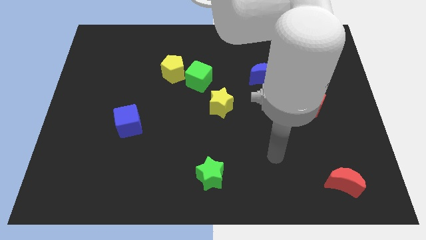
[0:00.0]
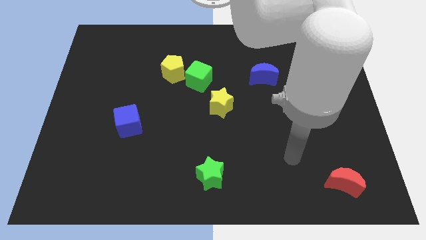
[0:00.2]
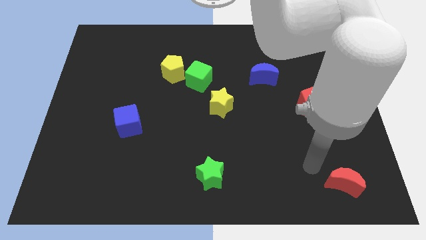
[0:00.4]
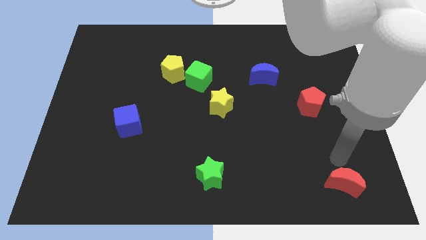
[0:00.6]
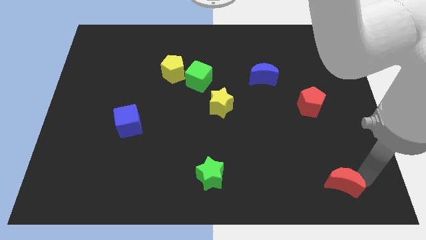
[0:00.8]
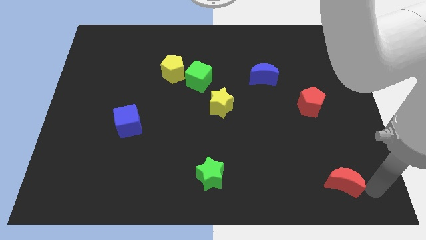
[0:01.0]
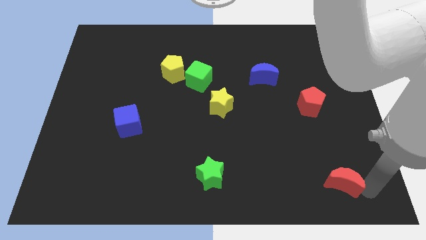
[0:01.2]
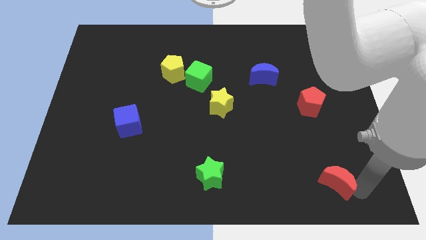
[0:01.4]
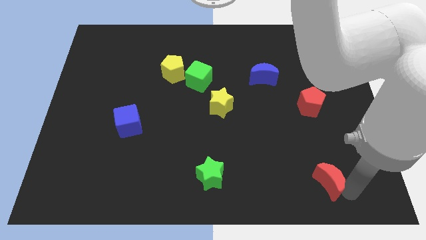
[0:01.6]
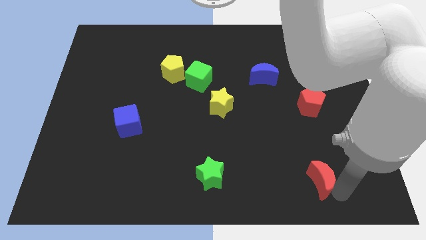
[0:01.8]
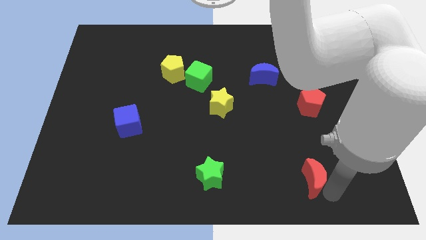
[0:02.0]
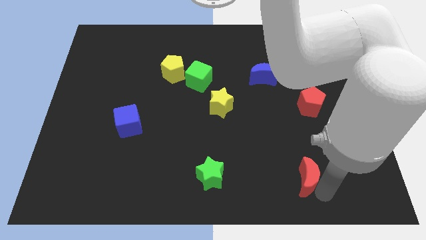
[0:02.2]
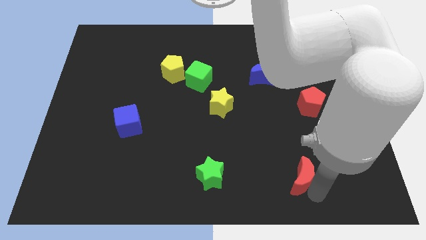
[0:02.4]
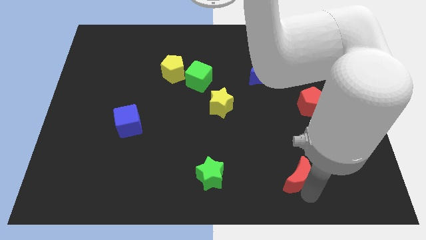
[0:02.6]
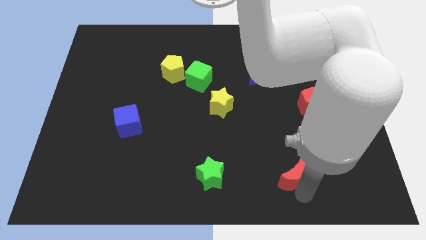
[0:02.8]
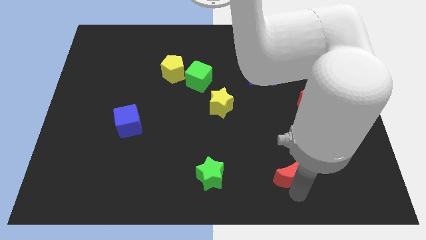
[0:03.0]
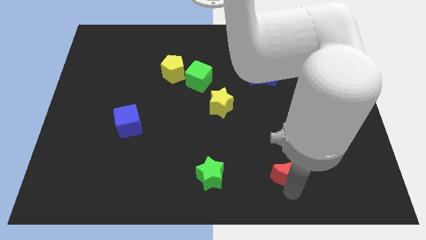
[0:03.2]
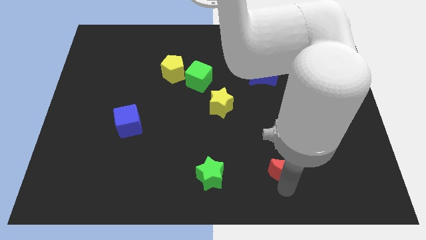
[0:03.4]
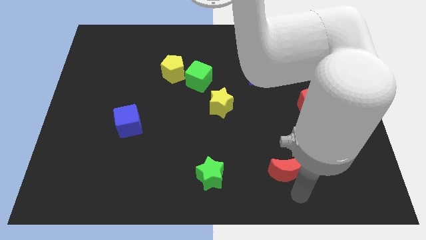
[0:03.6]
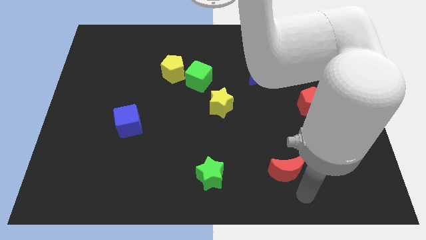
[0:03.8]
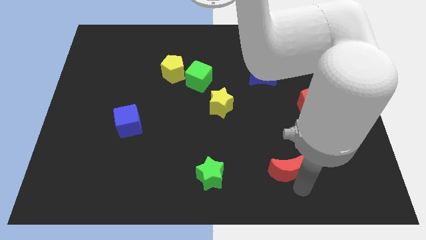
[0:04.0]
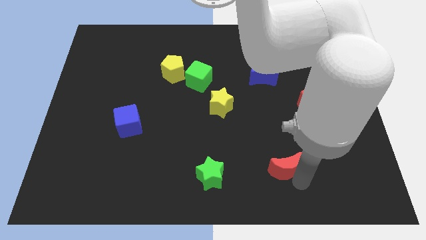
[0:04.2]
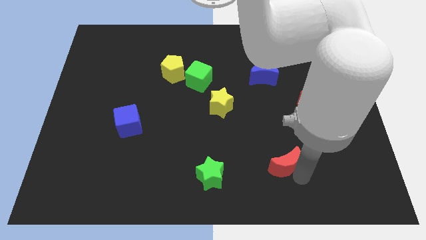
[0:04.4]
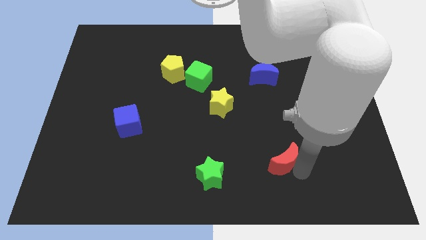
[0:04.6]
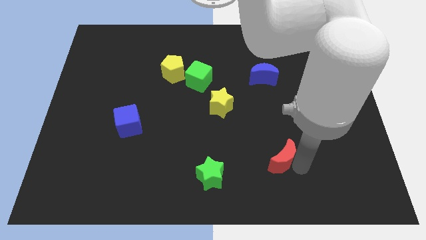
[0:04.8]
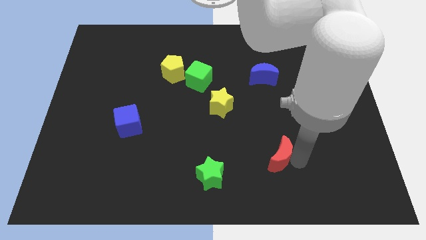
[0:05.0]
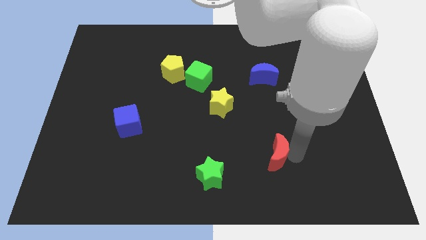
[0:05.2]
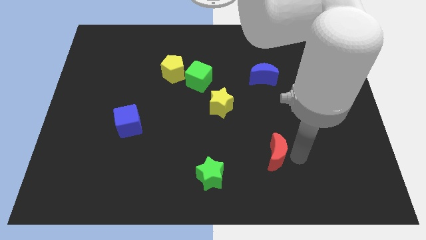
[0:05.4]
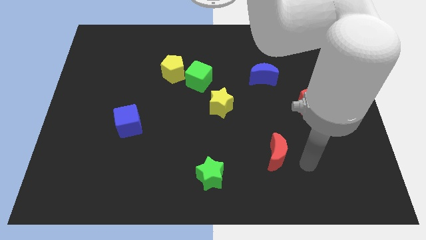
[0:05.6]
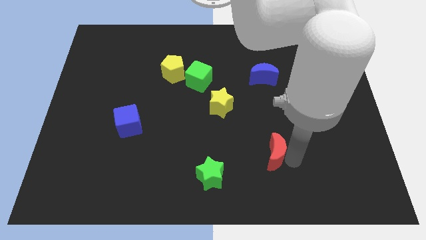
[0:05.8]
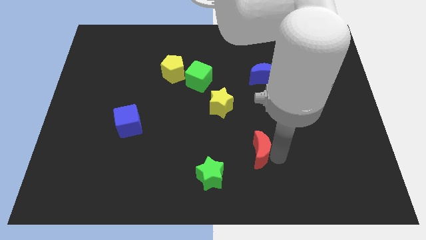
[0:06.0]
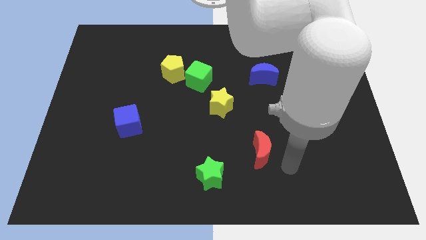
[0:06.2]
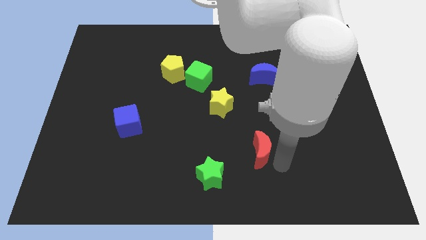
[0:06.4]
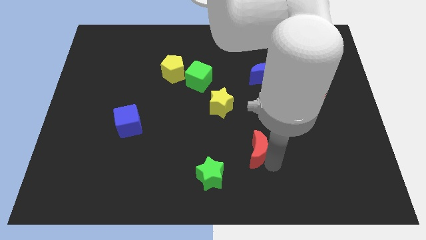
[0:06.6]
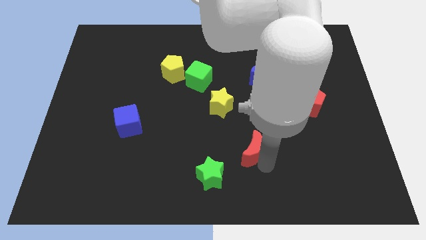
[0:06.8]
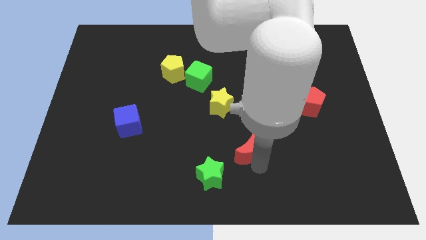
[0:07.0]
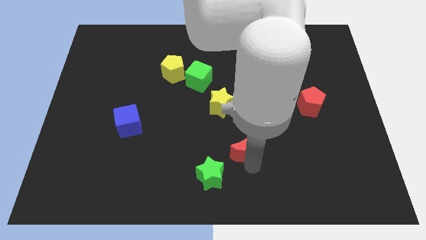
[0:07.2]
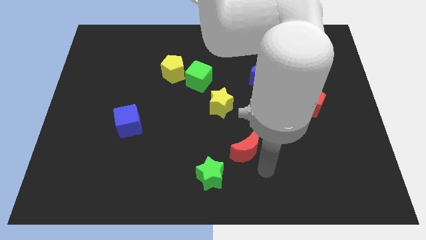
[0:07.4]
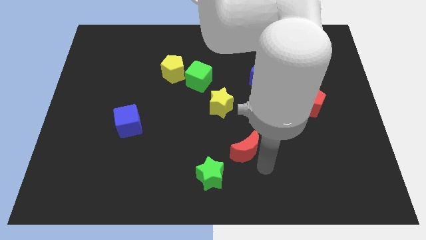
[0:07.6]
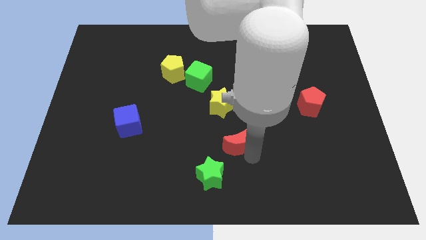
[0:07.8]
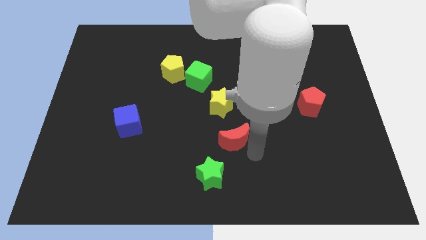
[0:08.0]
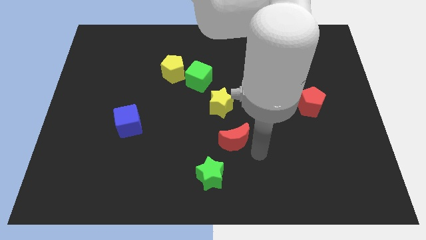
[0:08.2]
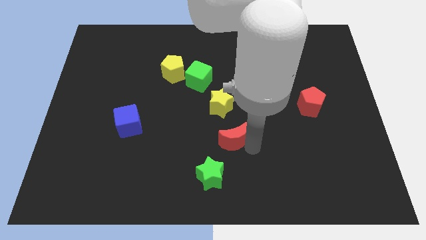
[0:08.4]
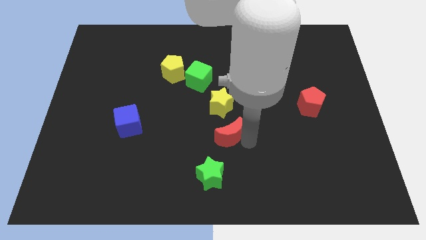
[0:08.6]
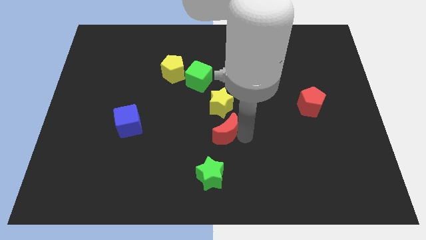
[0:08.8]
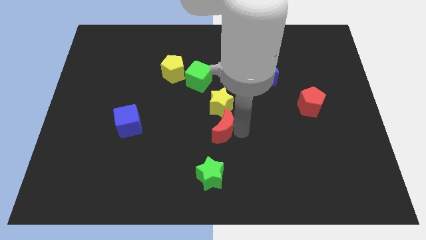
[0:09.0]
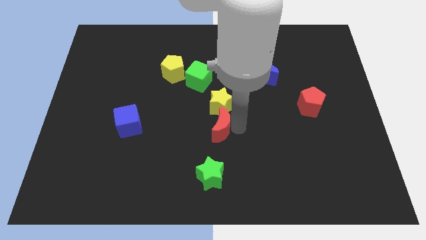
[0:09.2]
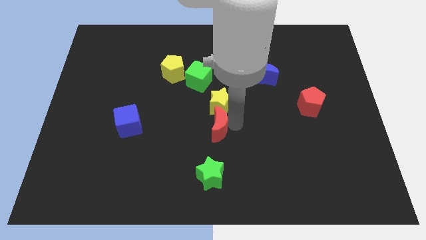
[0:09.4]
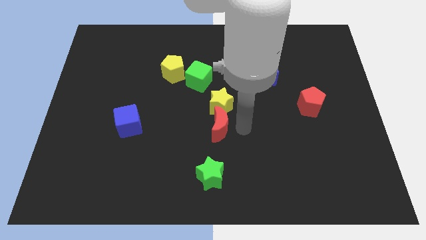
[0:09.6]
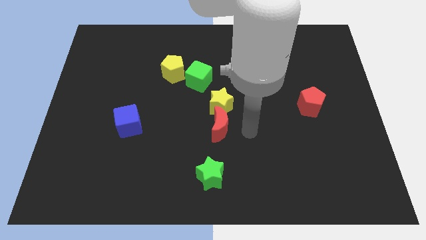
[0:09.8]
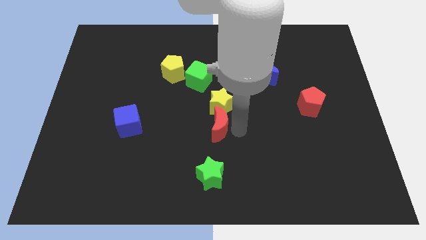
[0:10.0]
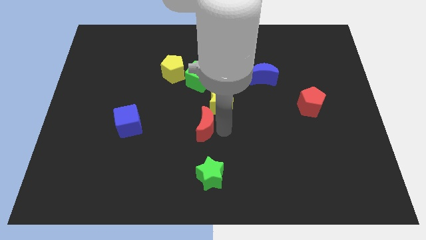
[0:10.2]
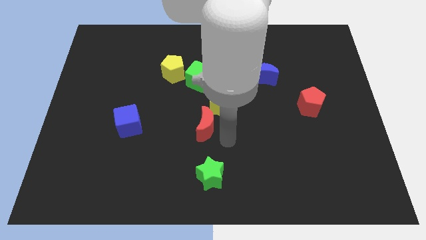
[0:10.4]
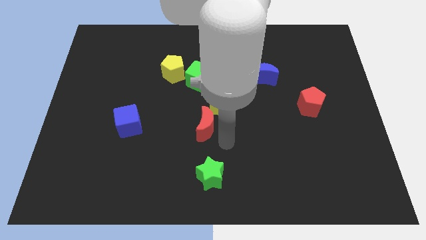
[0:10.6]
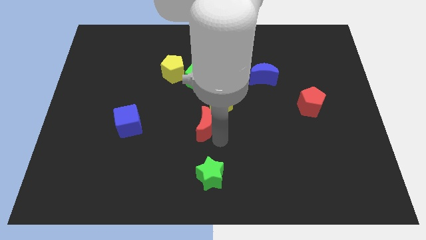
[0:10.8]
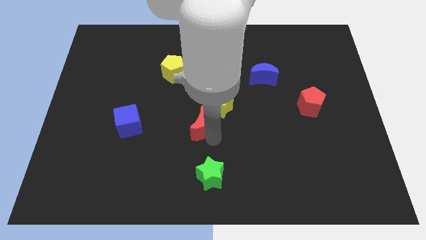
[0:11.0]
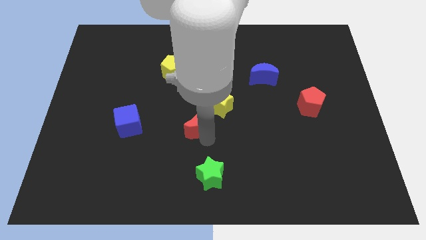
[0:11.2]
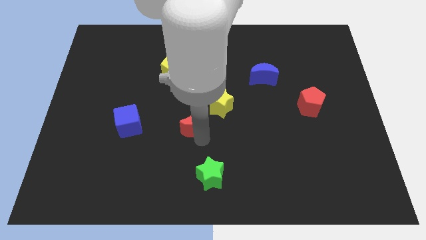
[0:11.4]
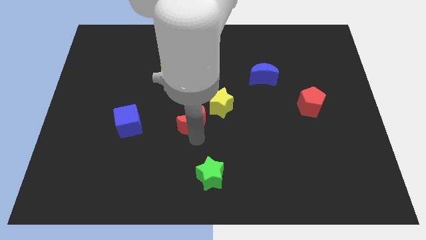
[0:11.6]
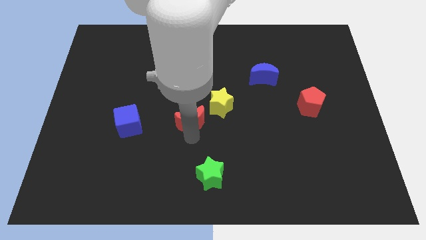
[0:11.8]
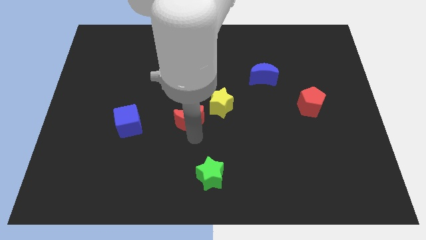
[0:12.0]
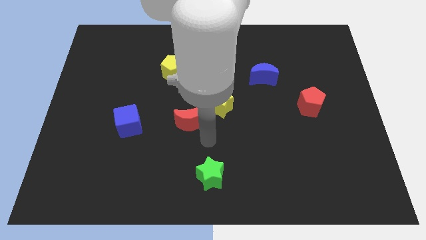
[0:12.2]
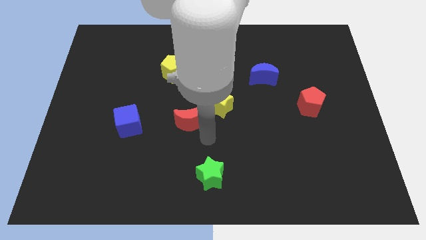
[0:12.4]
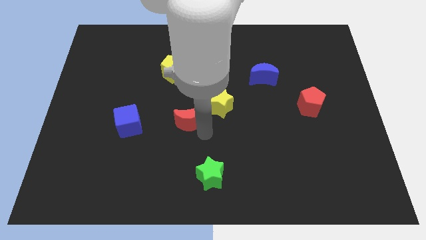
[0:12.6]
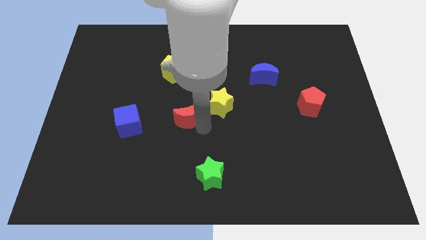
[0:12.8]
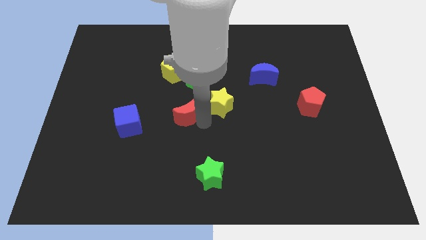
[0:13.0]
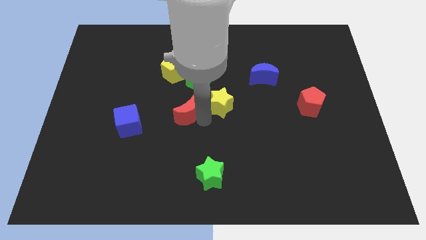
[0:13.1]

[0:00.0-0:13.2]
slide the red moon below the yellow pentagon
